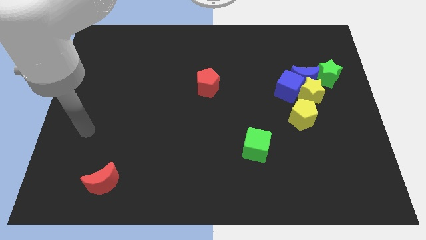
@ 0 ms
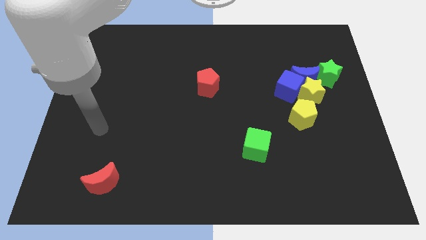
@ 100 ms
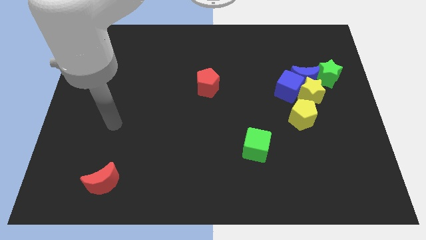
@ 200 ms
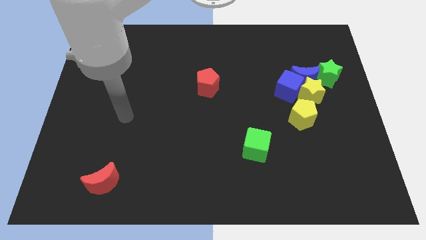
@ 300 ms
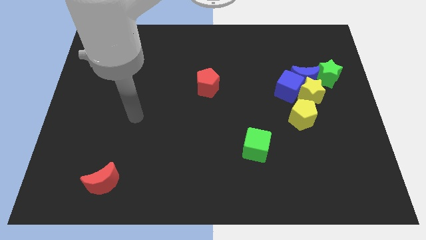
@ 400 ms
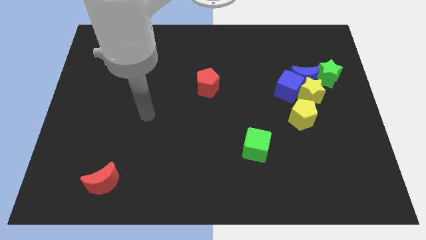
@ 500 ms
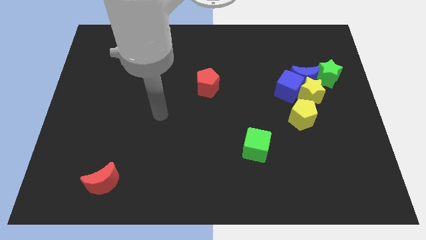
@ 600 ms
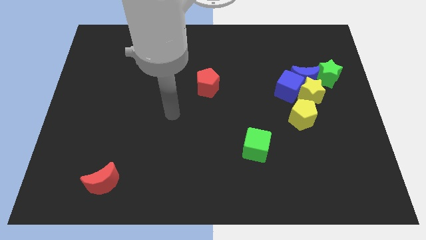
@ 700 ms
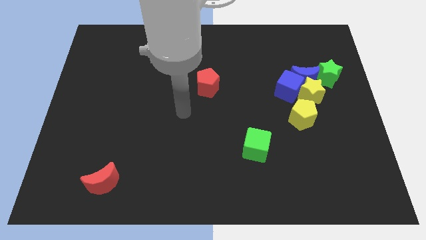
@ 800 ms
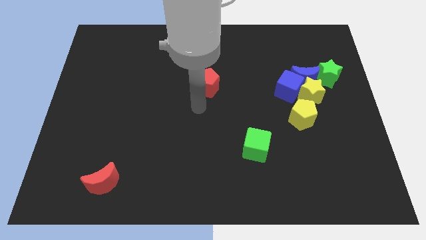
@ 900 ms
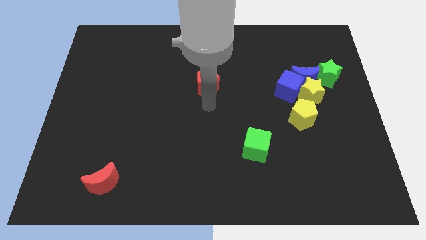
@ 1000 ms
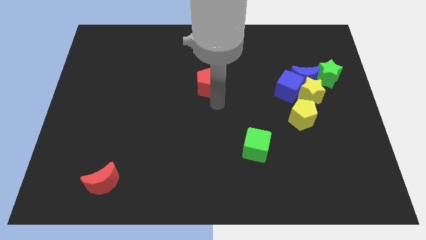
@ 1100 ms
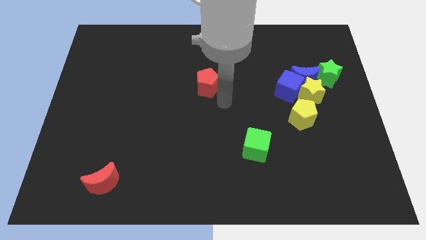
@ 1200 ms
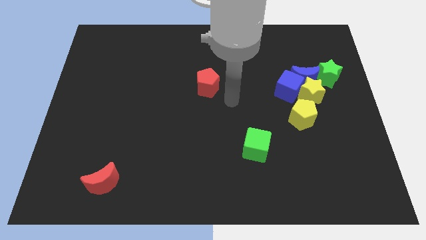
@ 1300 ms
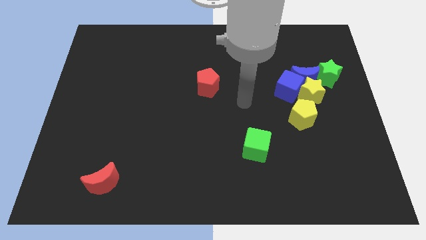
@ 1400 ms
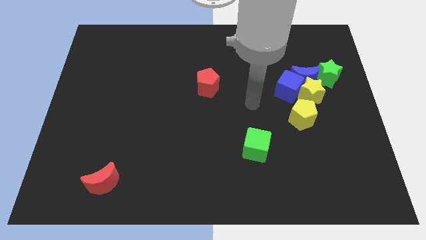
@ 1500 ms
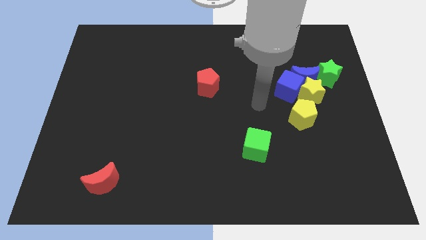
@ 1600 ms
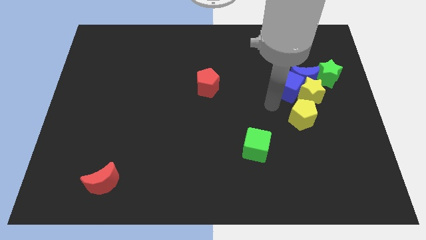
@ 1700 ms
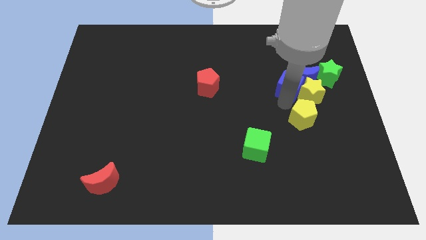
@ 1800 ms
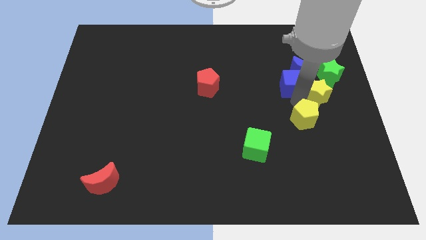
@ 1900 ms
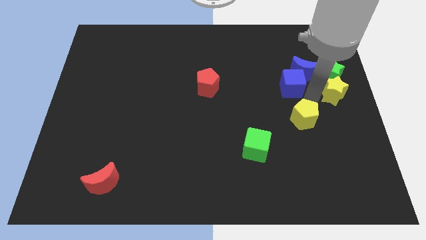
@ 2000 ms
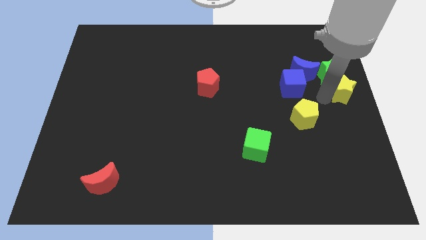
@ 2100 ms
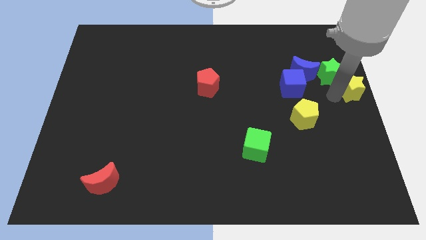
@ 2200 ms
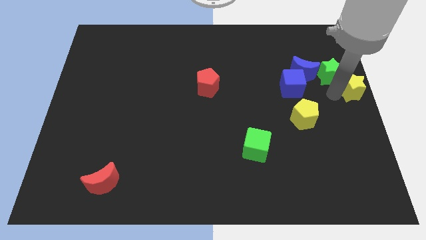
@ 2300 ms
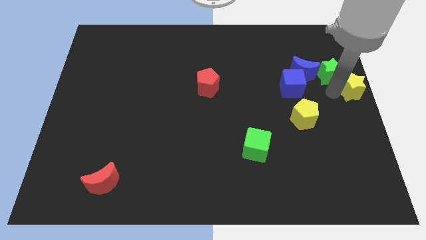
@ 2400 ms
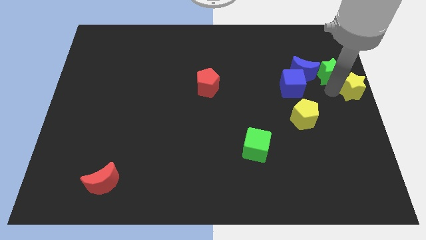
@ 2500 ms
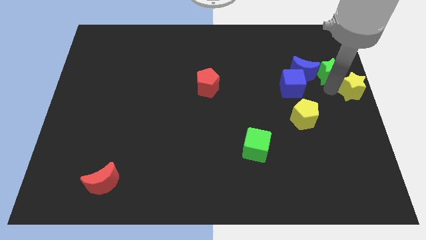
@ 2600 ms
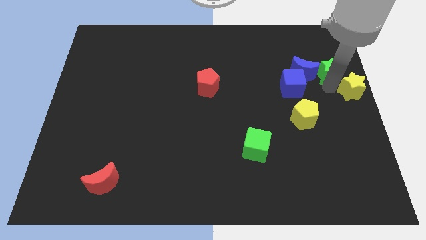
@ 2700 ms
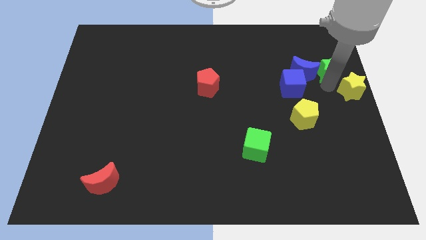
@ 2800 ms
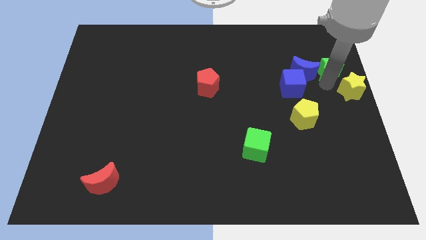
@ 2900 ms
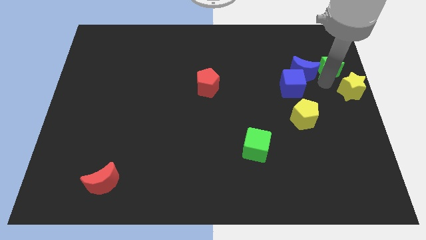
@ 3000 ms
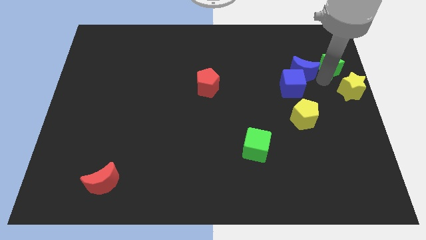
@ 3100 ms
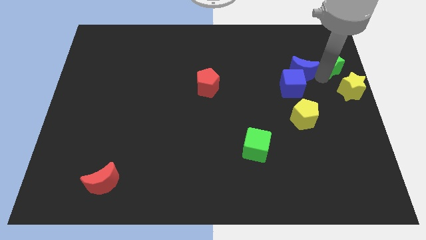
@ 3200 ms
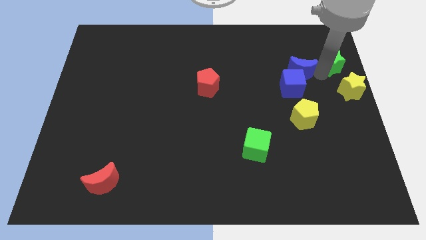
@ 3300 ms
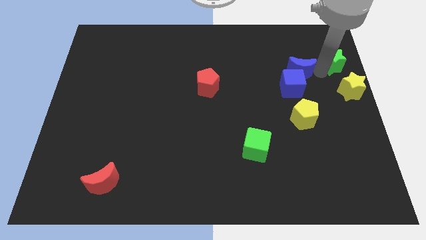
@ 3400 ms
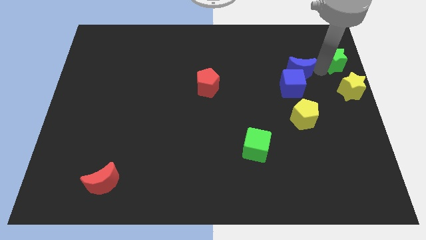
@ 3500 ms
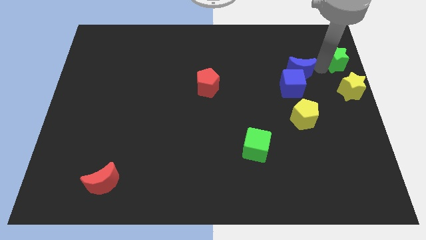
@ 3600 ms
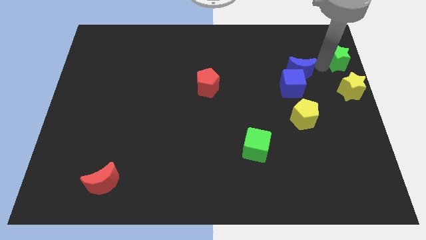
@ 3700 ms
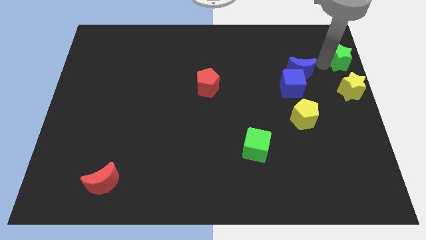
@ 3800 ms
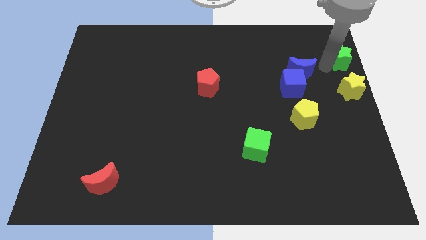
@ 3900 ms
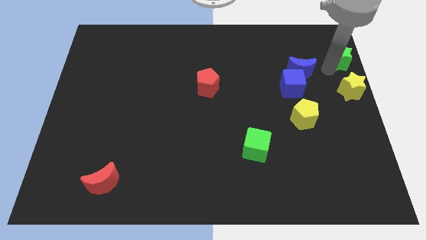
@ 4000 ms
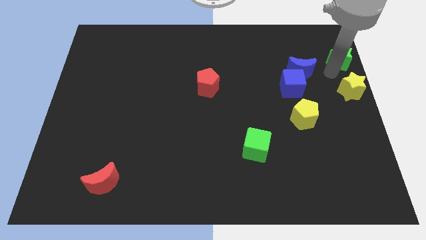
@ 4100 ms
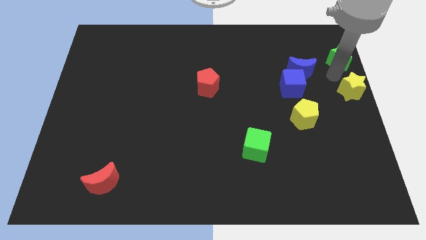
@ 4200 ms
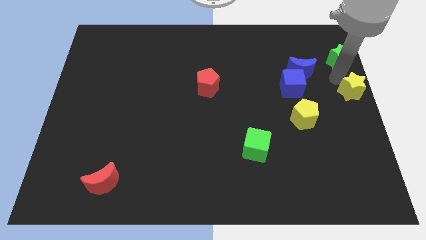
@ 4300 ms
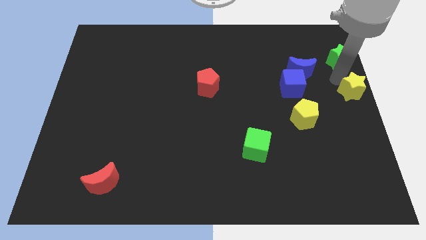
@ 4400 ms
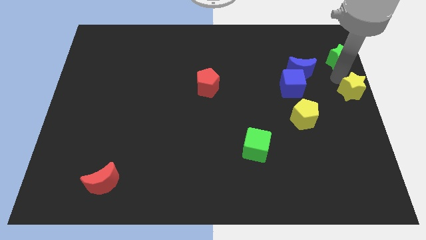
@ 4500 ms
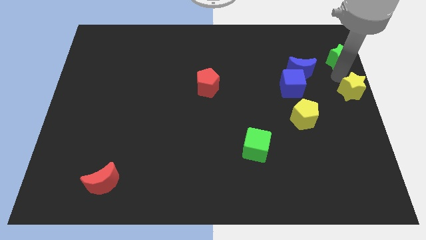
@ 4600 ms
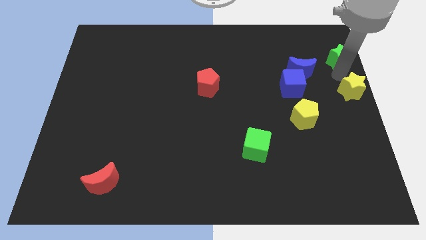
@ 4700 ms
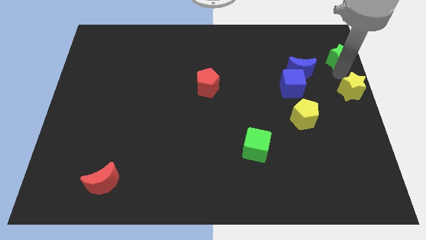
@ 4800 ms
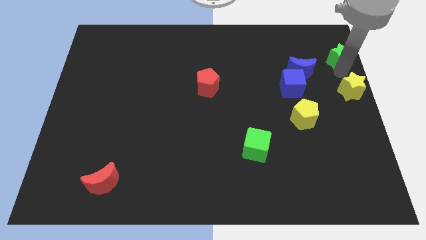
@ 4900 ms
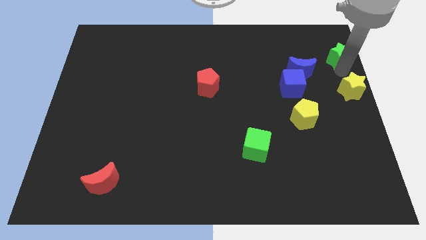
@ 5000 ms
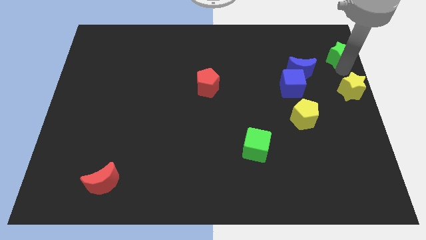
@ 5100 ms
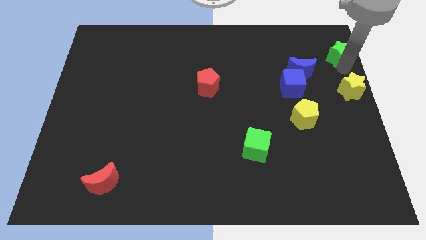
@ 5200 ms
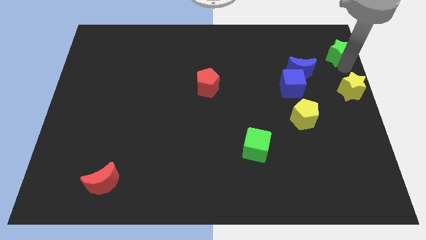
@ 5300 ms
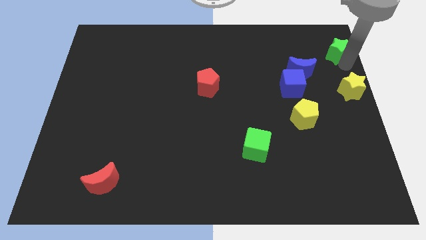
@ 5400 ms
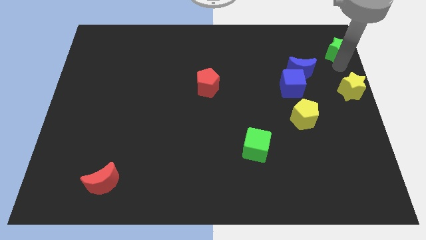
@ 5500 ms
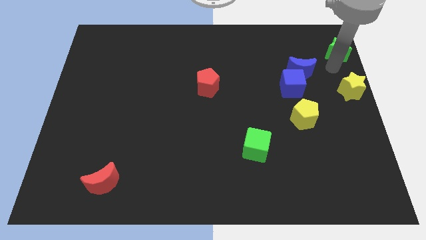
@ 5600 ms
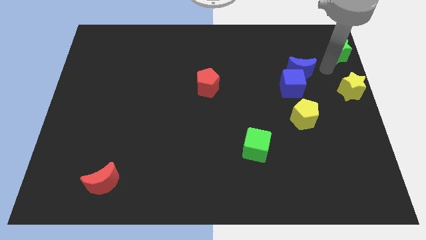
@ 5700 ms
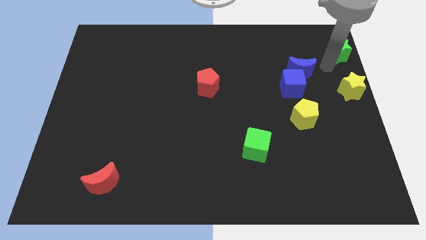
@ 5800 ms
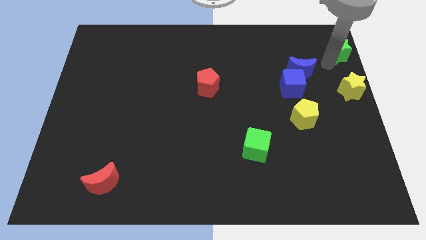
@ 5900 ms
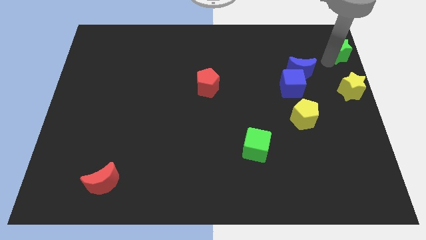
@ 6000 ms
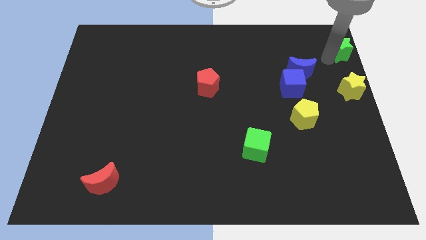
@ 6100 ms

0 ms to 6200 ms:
put the green star to the top right of the board

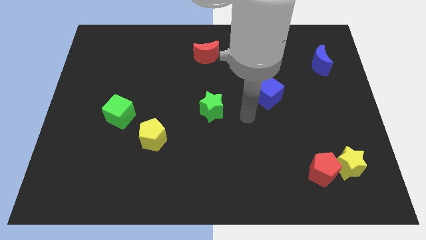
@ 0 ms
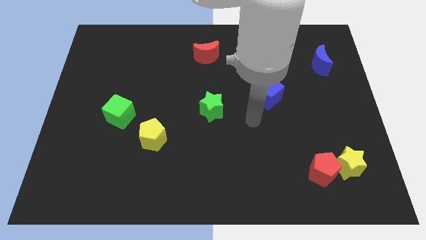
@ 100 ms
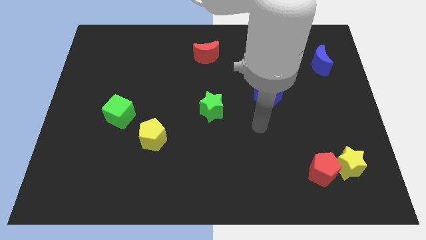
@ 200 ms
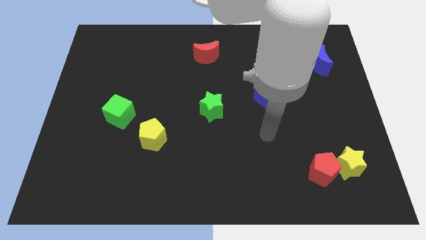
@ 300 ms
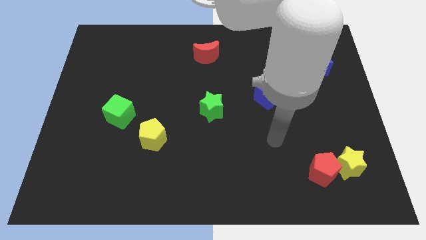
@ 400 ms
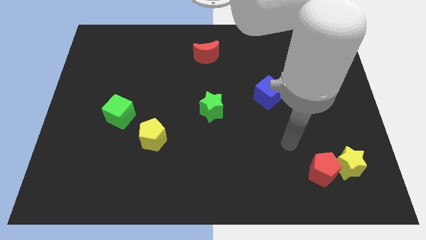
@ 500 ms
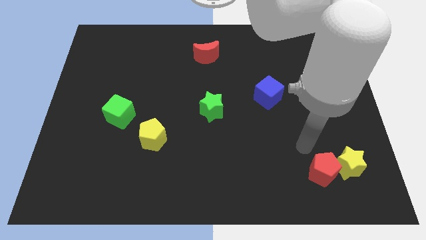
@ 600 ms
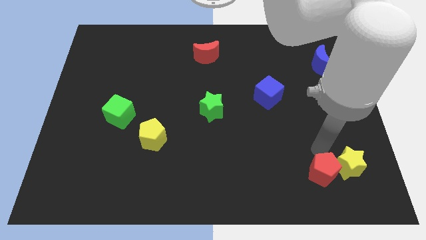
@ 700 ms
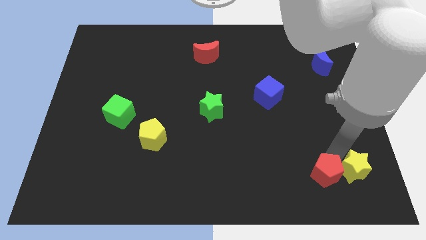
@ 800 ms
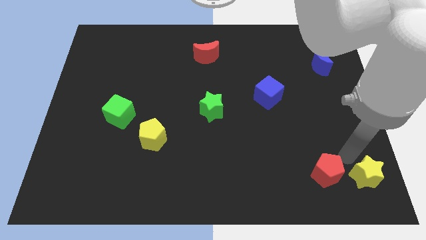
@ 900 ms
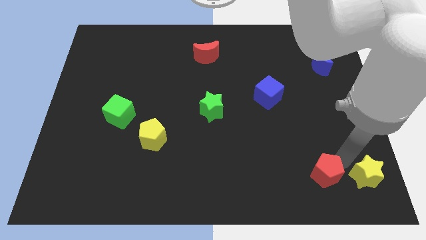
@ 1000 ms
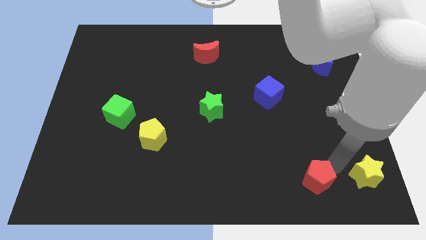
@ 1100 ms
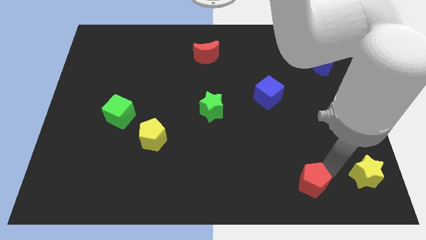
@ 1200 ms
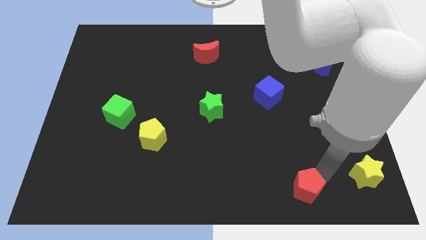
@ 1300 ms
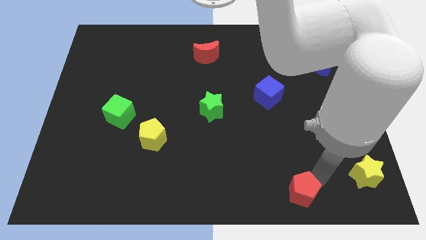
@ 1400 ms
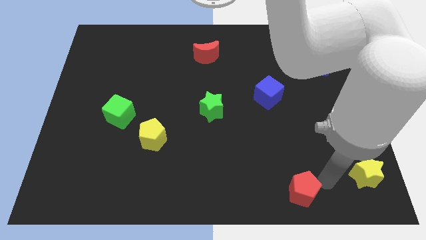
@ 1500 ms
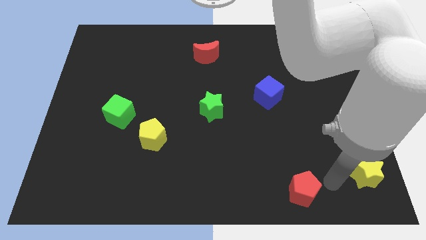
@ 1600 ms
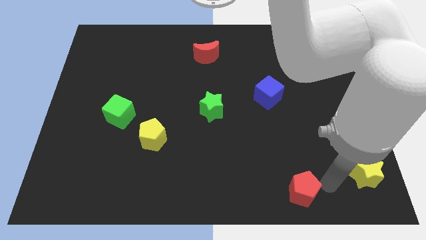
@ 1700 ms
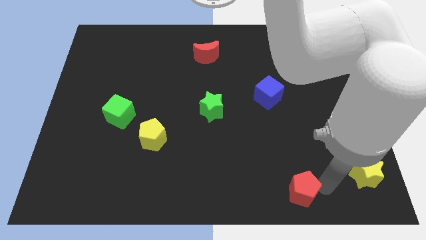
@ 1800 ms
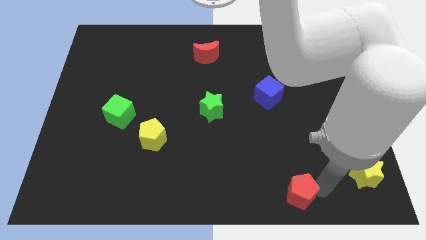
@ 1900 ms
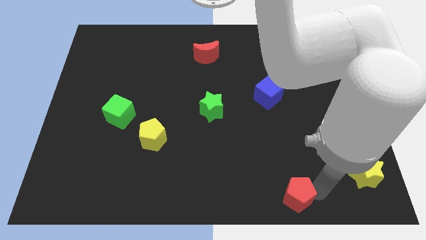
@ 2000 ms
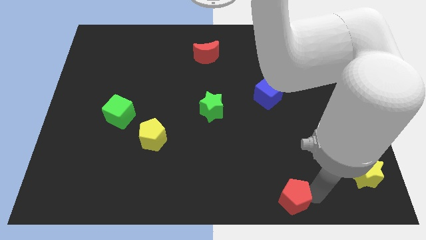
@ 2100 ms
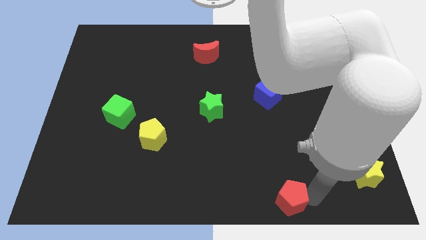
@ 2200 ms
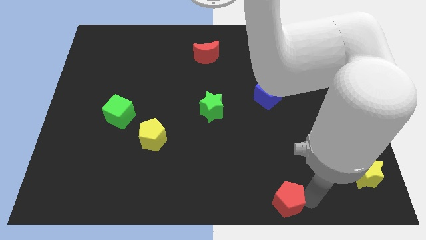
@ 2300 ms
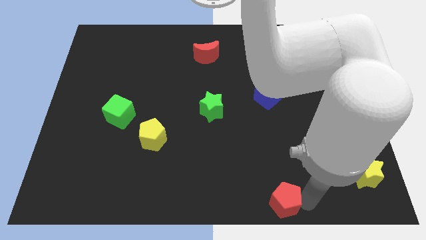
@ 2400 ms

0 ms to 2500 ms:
put the red pentagon to the bottom
